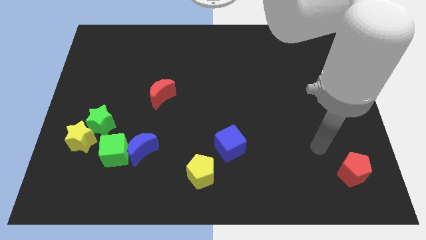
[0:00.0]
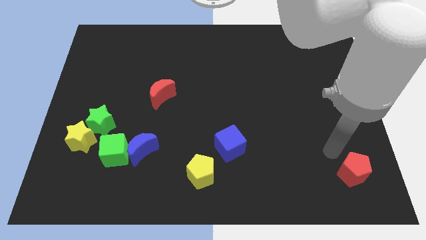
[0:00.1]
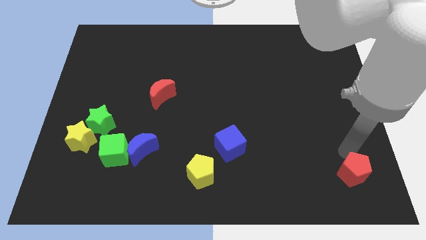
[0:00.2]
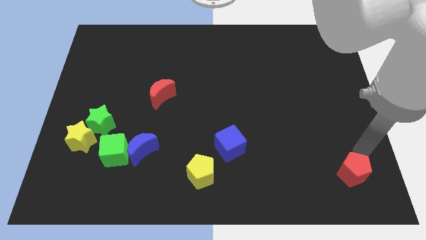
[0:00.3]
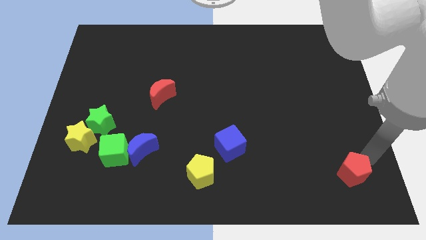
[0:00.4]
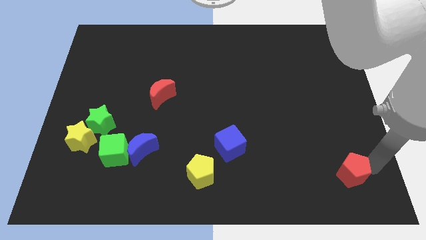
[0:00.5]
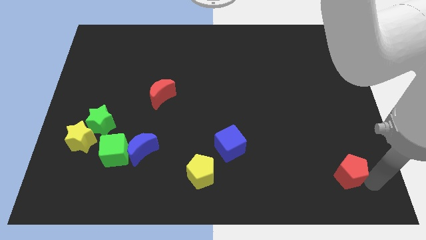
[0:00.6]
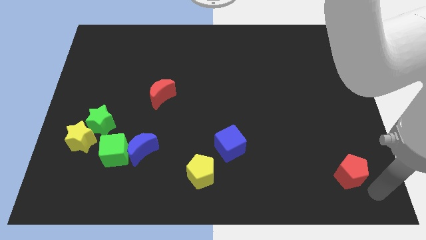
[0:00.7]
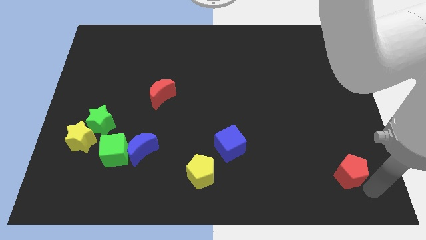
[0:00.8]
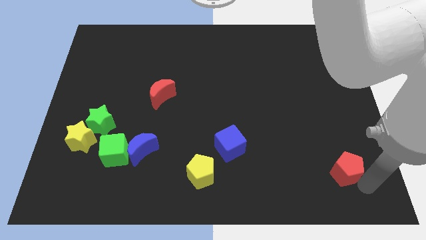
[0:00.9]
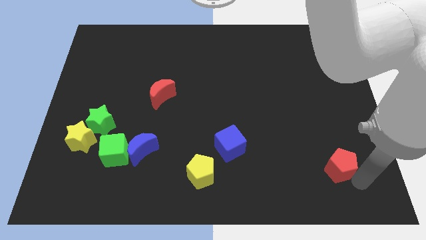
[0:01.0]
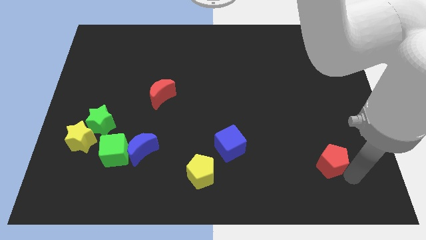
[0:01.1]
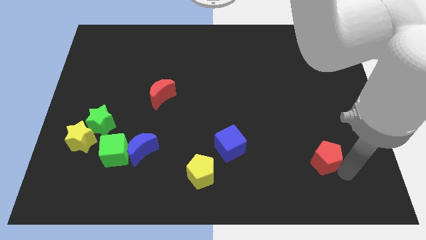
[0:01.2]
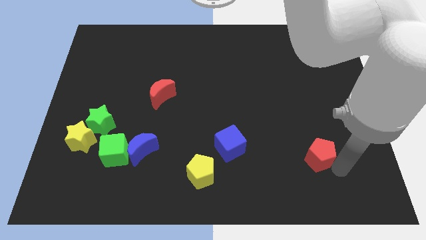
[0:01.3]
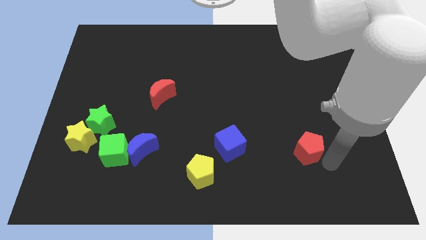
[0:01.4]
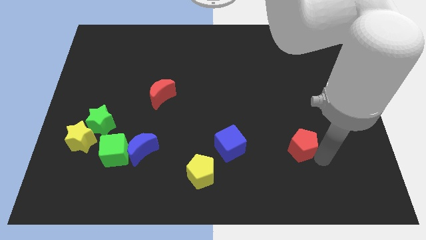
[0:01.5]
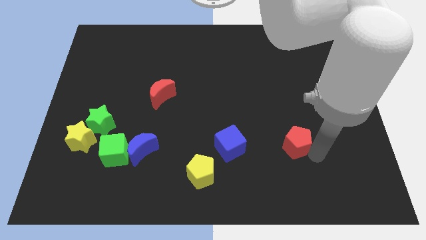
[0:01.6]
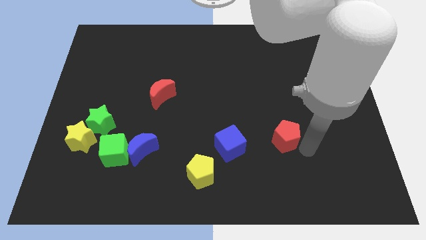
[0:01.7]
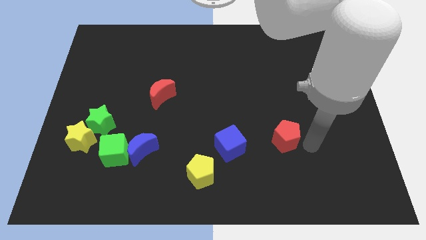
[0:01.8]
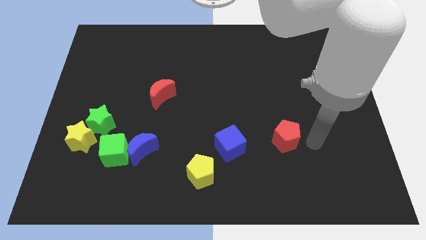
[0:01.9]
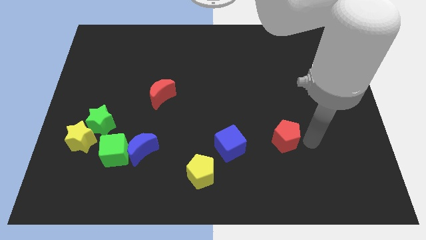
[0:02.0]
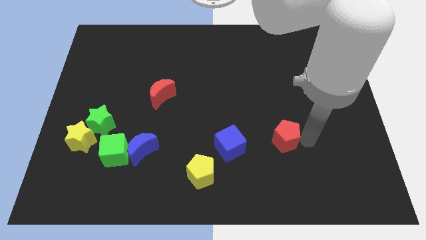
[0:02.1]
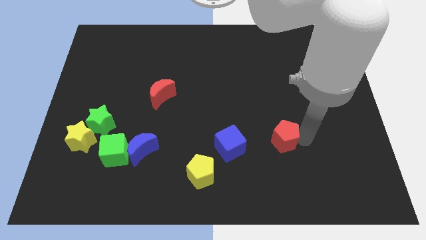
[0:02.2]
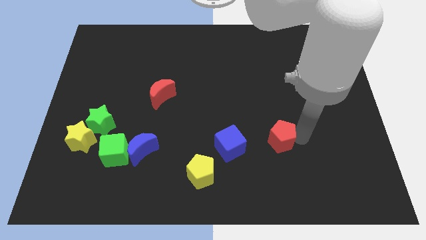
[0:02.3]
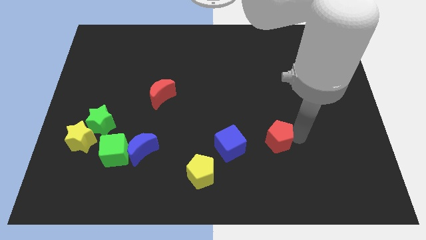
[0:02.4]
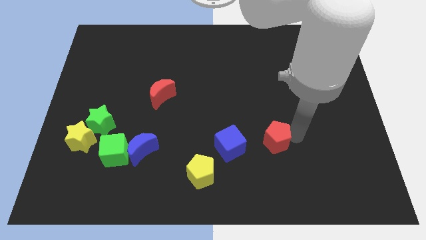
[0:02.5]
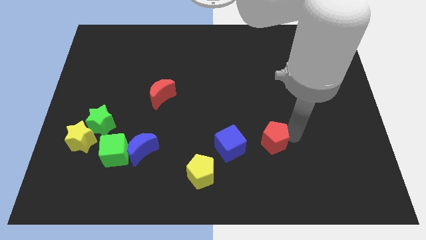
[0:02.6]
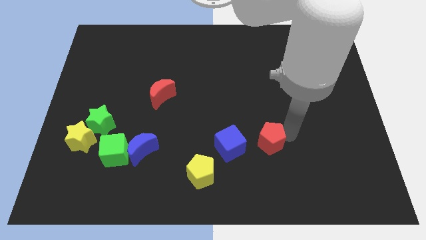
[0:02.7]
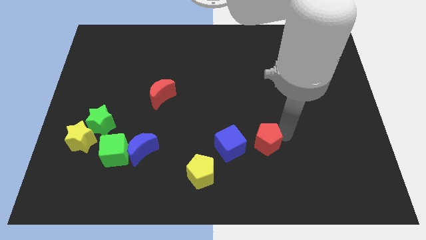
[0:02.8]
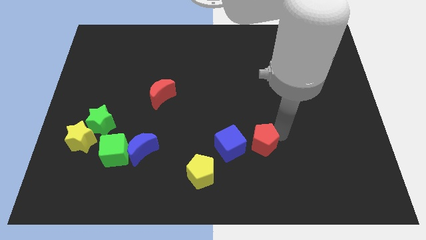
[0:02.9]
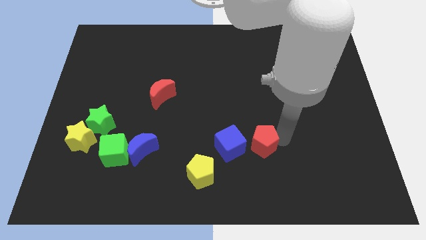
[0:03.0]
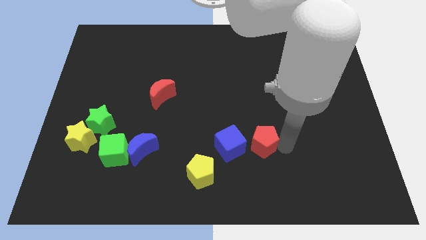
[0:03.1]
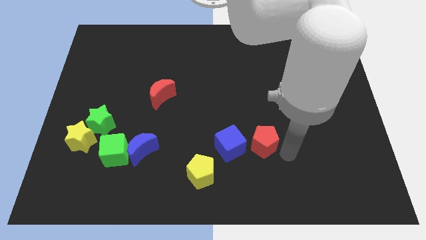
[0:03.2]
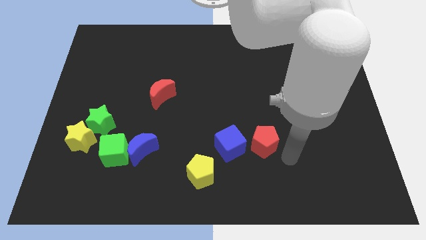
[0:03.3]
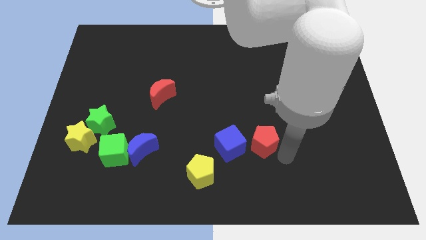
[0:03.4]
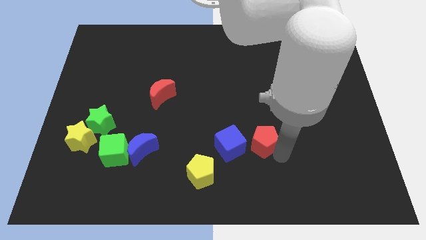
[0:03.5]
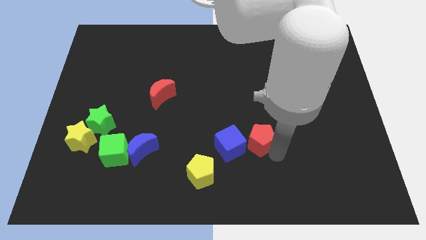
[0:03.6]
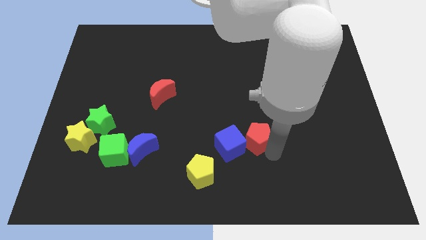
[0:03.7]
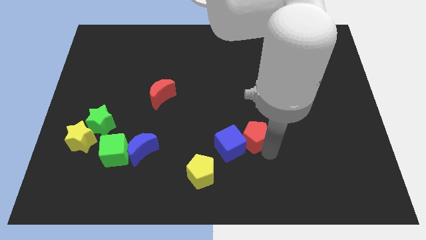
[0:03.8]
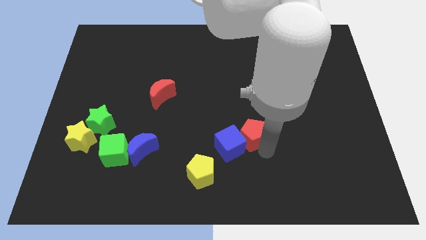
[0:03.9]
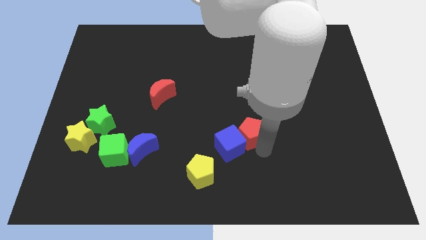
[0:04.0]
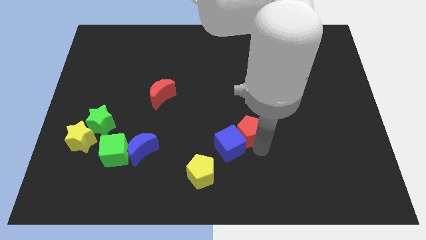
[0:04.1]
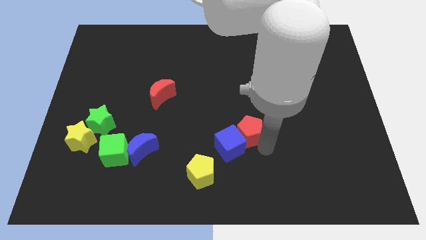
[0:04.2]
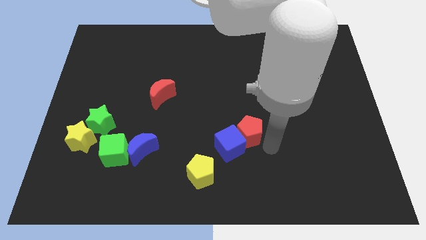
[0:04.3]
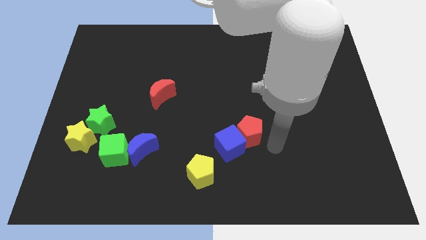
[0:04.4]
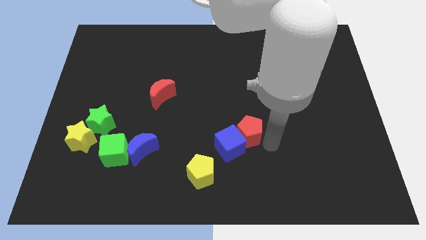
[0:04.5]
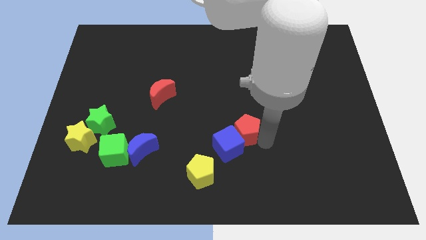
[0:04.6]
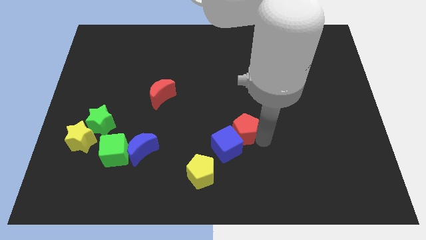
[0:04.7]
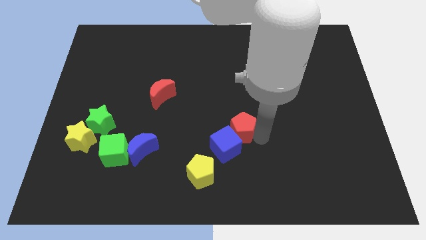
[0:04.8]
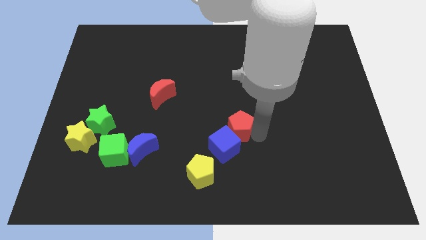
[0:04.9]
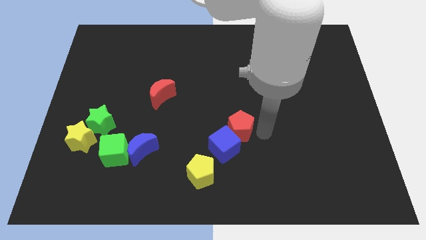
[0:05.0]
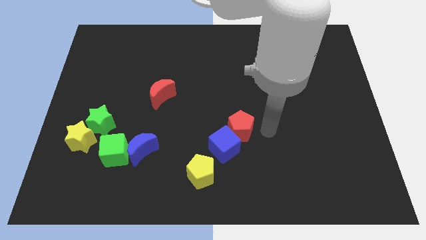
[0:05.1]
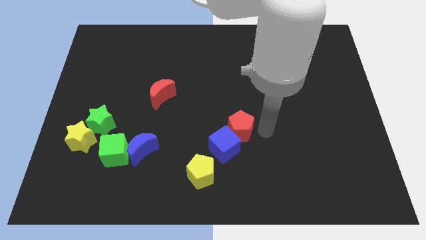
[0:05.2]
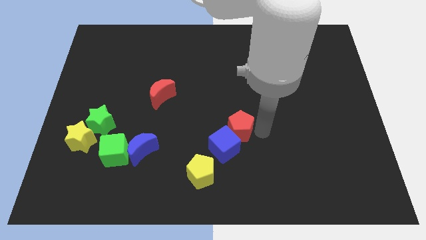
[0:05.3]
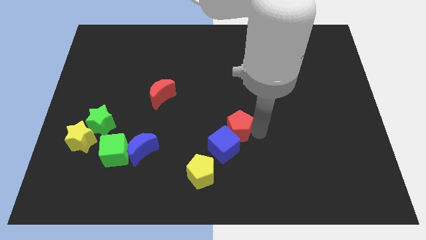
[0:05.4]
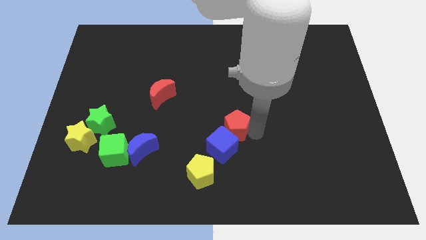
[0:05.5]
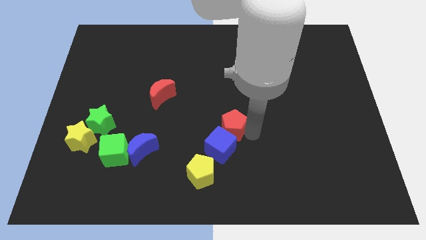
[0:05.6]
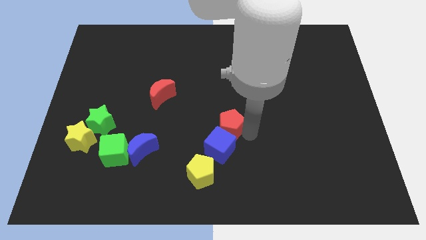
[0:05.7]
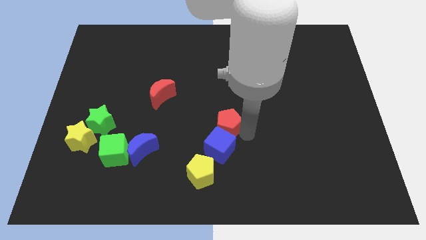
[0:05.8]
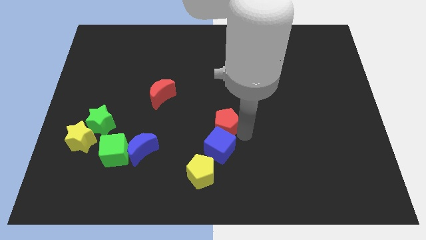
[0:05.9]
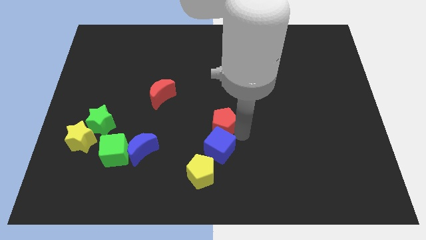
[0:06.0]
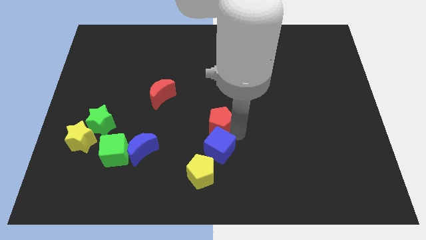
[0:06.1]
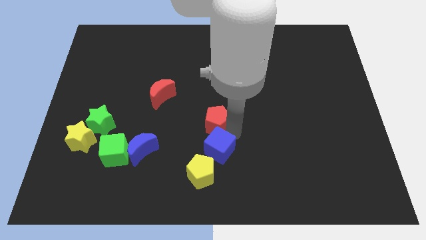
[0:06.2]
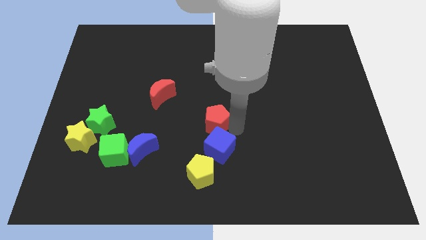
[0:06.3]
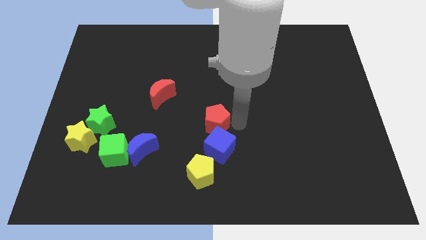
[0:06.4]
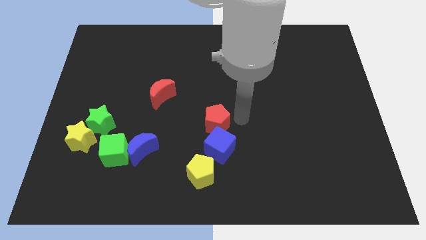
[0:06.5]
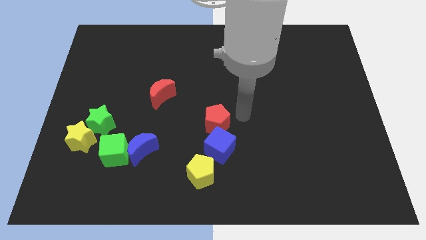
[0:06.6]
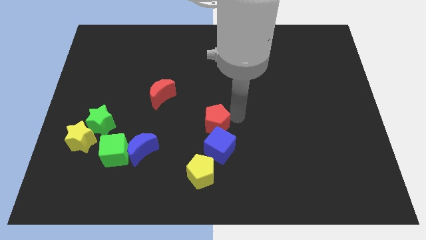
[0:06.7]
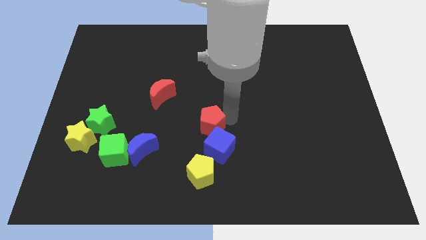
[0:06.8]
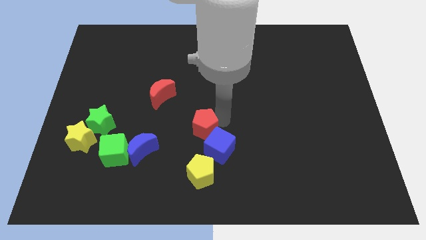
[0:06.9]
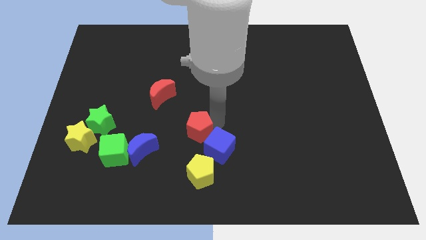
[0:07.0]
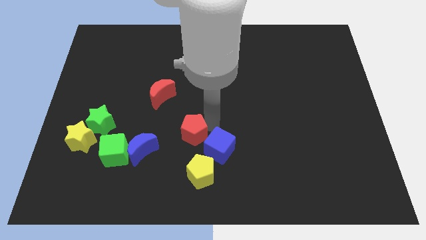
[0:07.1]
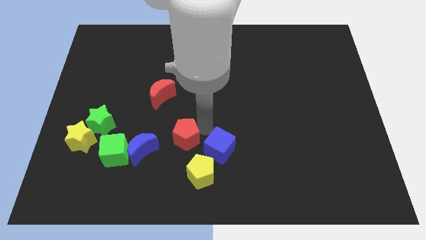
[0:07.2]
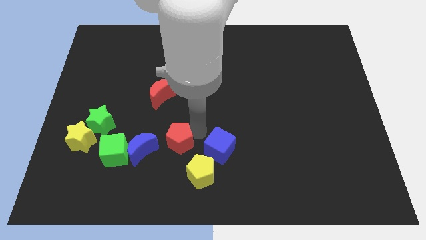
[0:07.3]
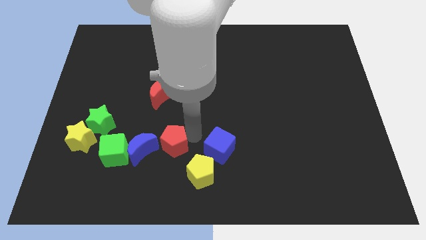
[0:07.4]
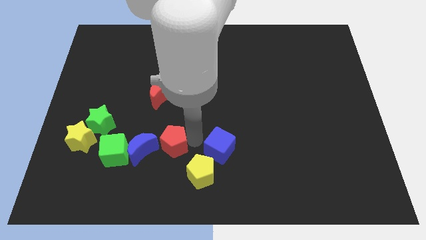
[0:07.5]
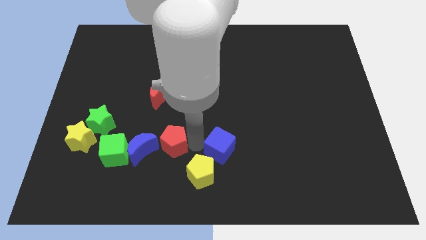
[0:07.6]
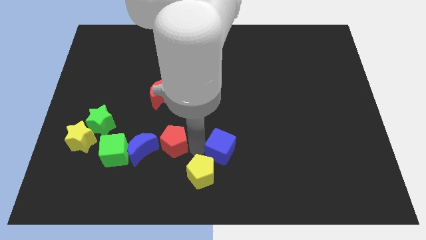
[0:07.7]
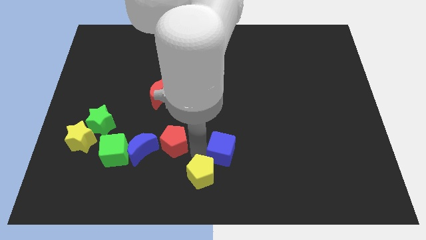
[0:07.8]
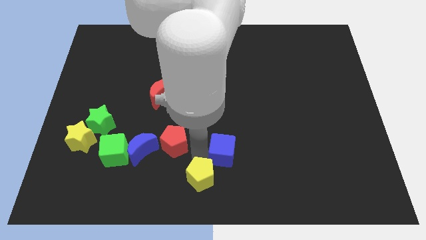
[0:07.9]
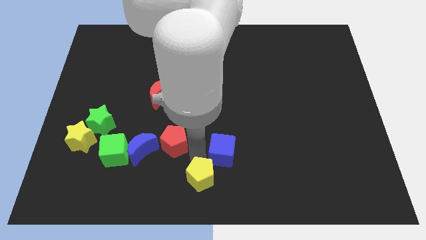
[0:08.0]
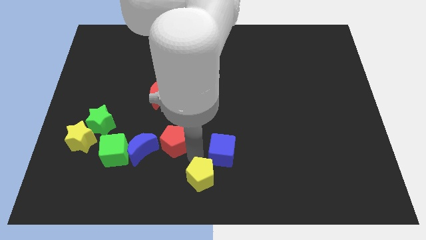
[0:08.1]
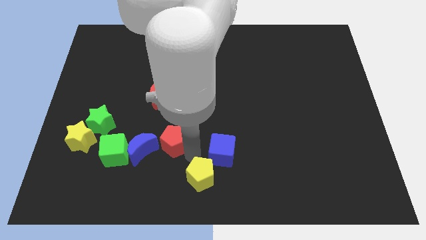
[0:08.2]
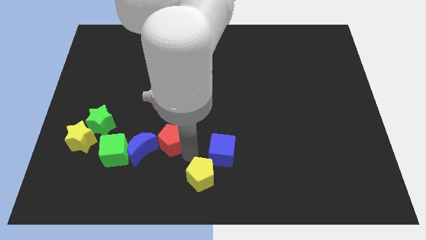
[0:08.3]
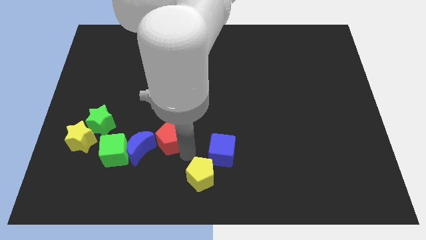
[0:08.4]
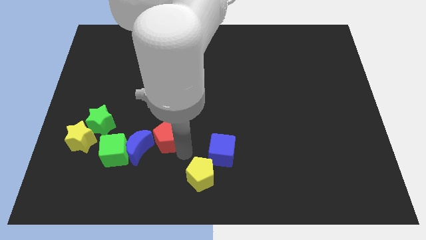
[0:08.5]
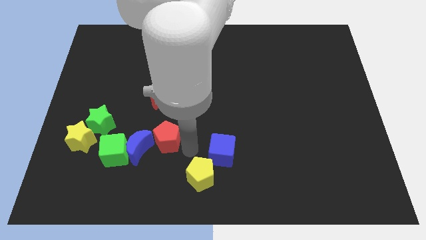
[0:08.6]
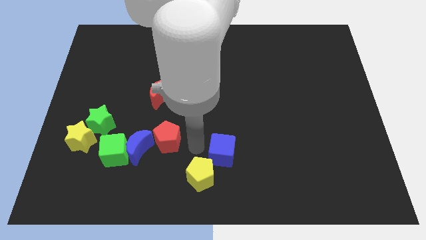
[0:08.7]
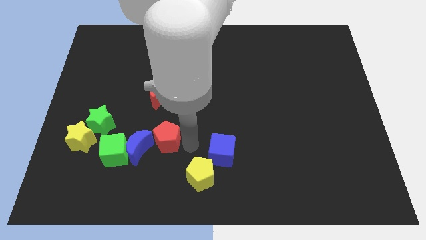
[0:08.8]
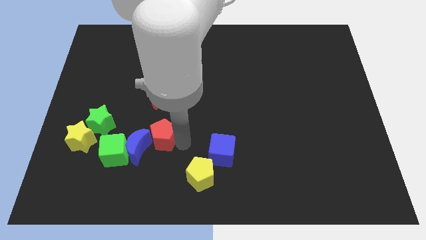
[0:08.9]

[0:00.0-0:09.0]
slide the red pentagon to the top right side of the green cube
